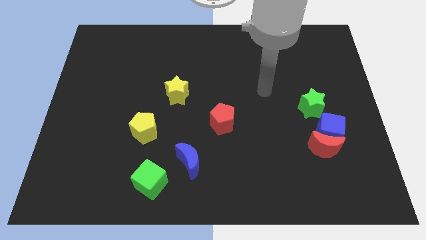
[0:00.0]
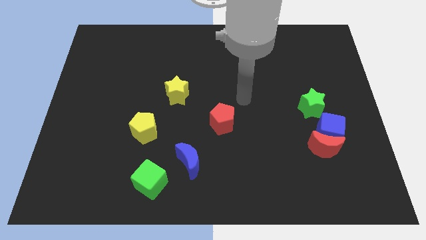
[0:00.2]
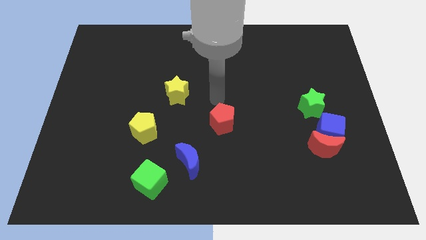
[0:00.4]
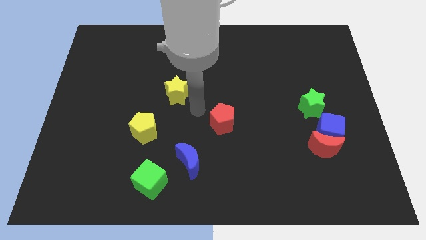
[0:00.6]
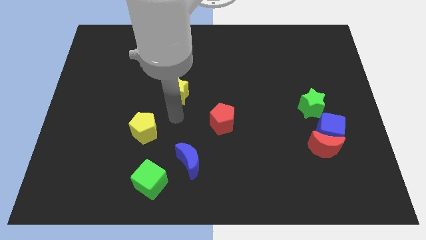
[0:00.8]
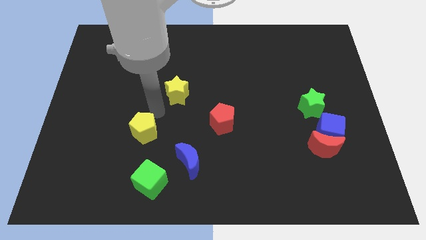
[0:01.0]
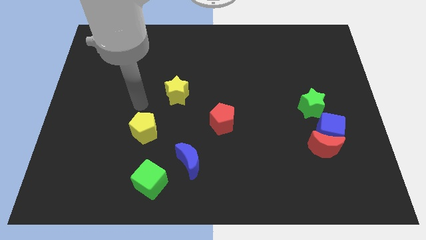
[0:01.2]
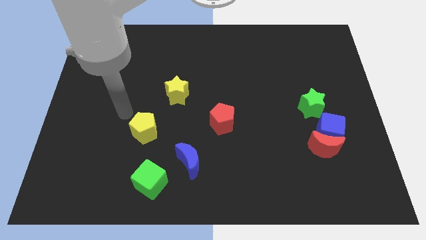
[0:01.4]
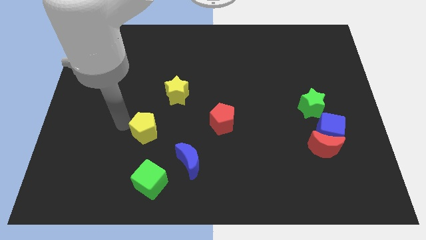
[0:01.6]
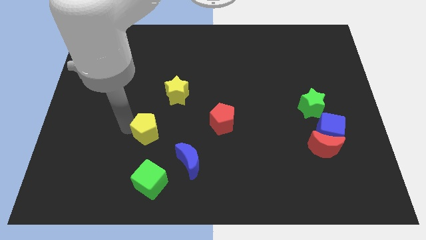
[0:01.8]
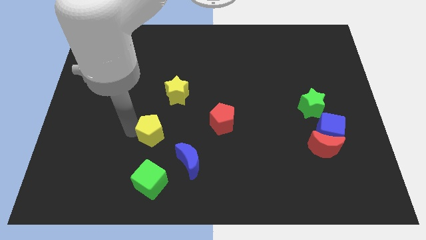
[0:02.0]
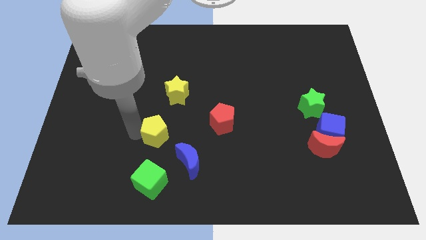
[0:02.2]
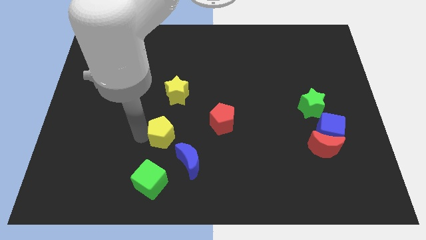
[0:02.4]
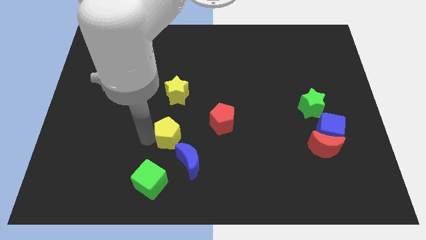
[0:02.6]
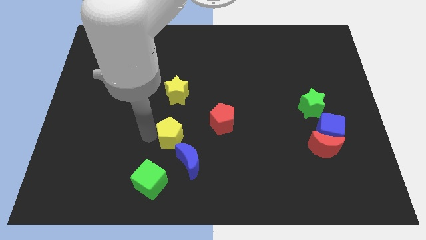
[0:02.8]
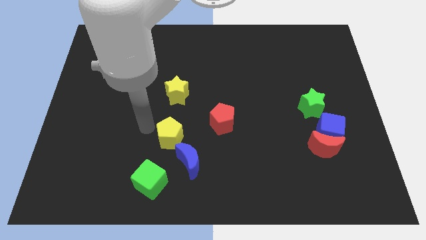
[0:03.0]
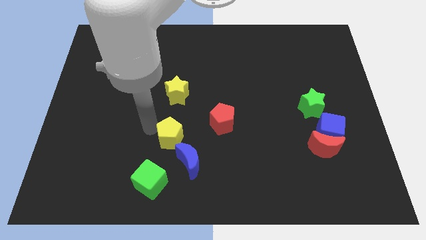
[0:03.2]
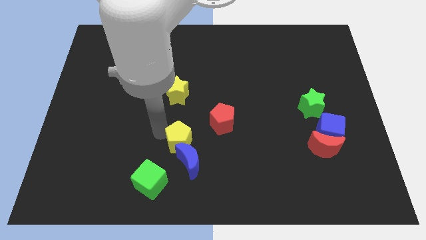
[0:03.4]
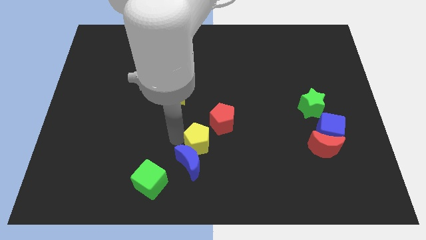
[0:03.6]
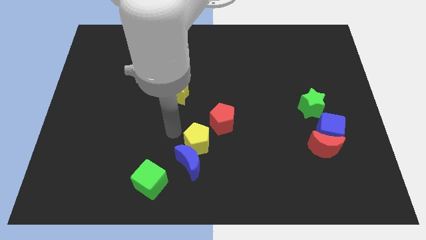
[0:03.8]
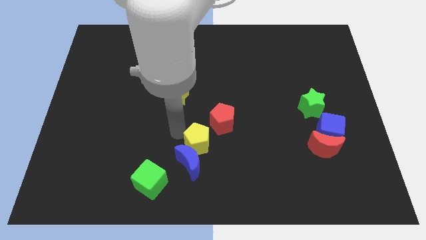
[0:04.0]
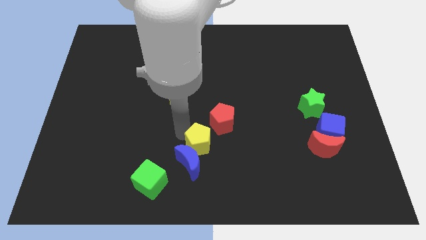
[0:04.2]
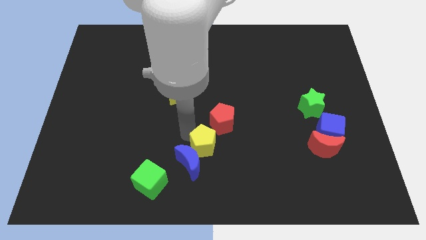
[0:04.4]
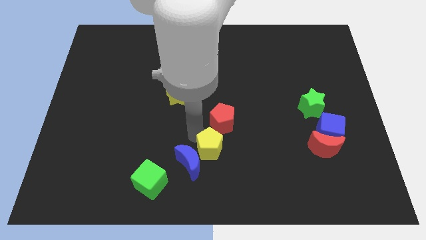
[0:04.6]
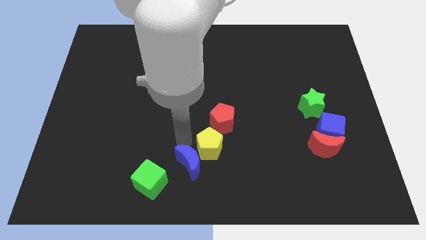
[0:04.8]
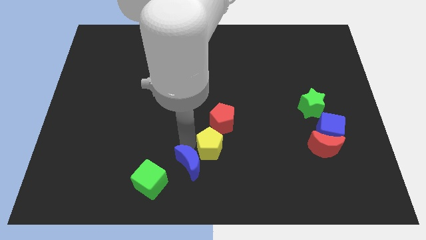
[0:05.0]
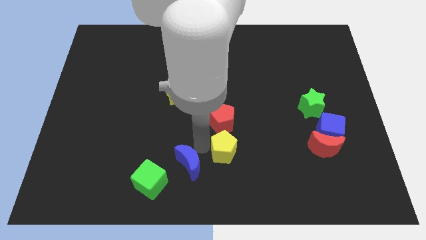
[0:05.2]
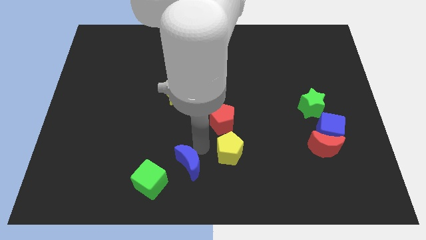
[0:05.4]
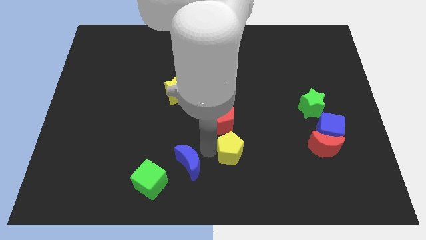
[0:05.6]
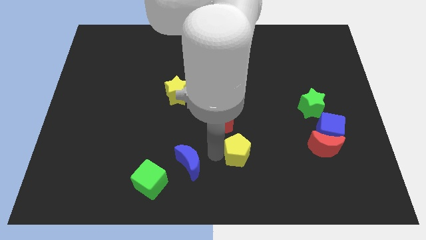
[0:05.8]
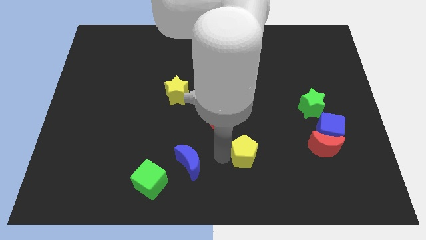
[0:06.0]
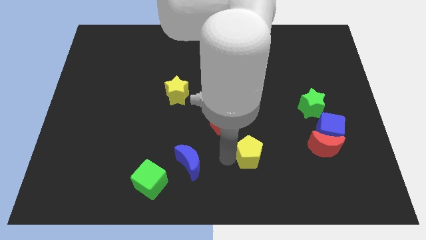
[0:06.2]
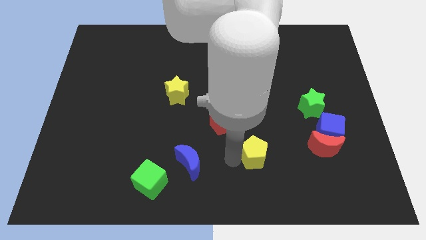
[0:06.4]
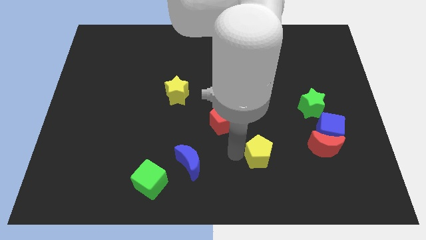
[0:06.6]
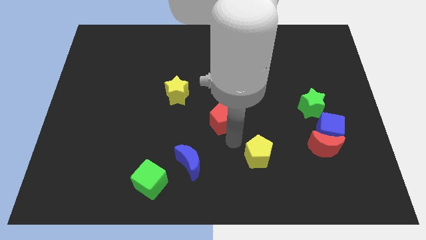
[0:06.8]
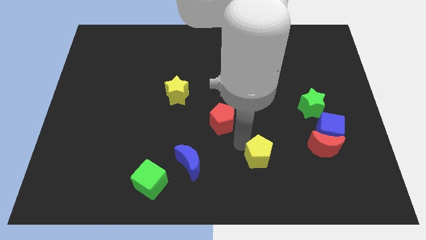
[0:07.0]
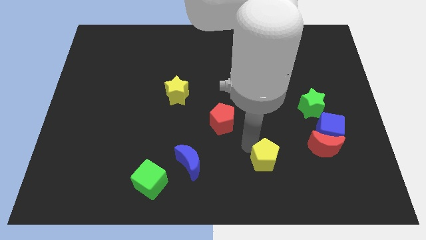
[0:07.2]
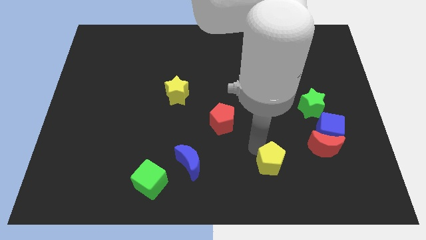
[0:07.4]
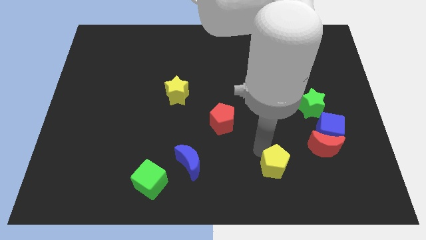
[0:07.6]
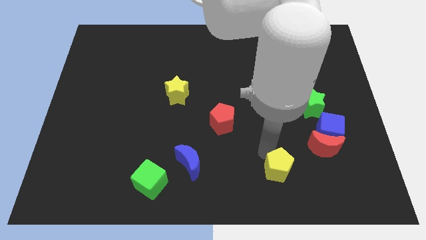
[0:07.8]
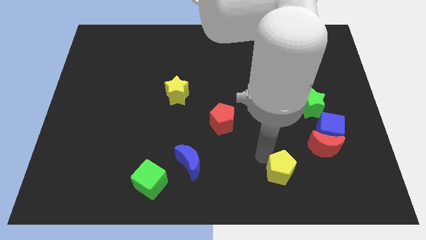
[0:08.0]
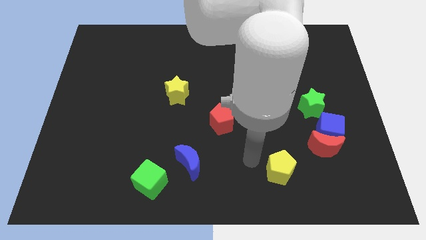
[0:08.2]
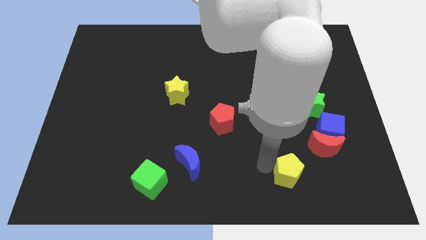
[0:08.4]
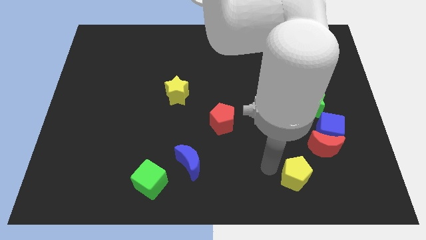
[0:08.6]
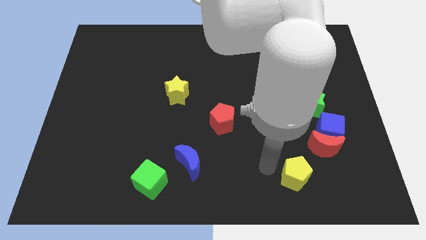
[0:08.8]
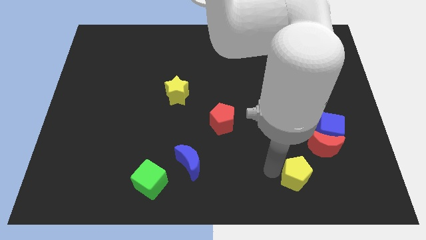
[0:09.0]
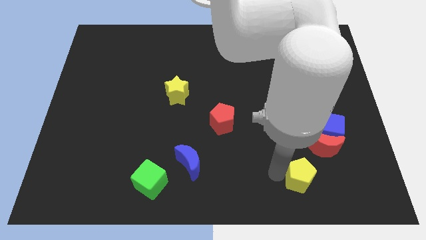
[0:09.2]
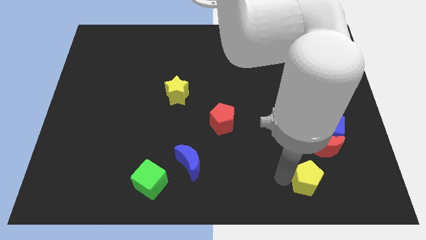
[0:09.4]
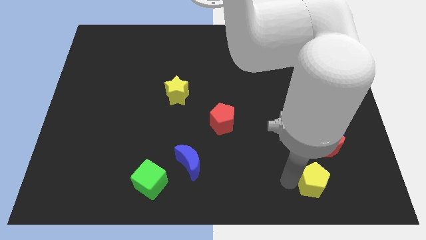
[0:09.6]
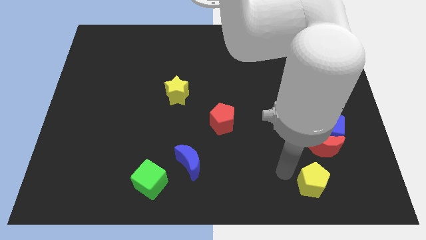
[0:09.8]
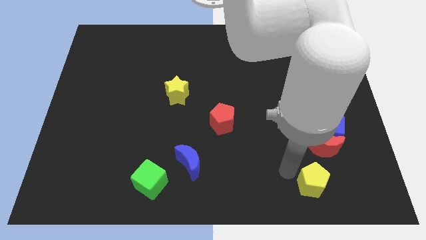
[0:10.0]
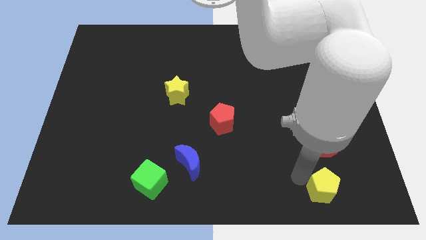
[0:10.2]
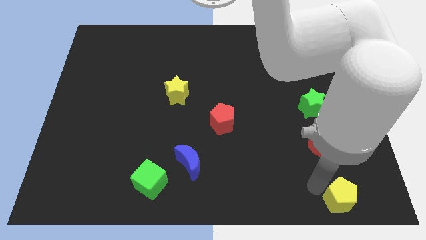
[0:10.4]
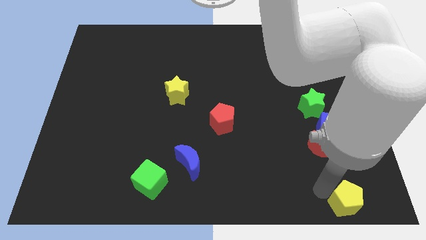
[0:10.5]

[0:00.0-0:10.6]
put the yellow pentagon to the bottom right
